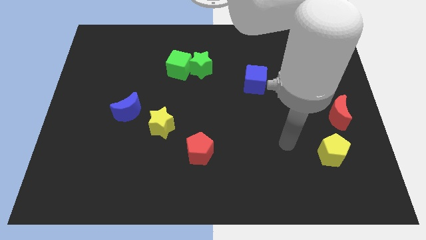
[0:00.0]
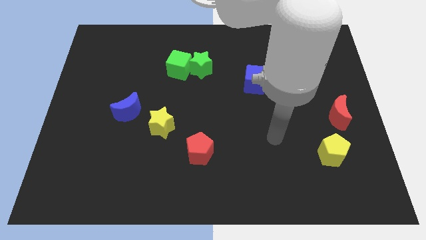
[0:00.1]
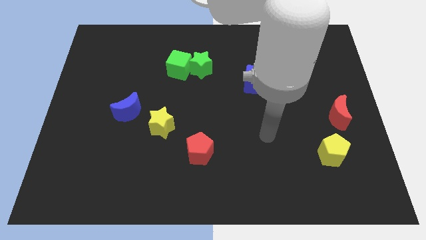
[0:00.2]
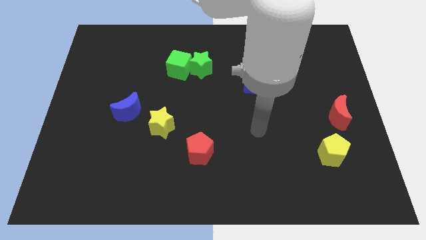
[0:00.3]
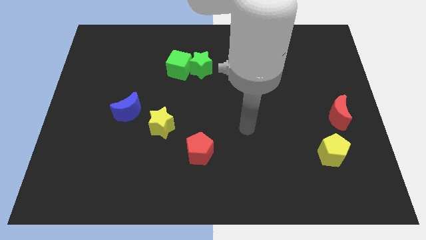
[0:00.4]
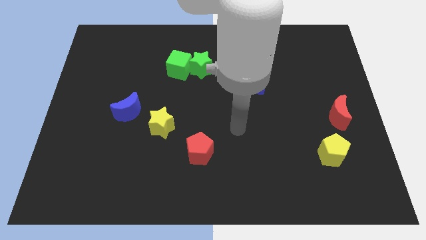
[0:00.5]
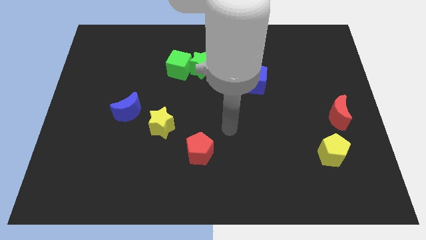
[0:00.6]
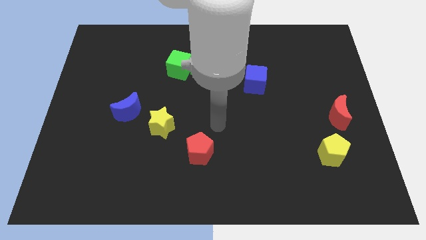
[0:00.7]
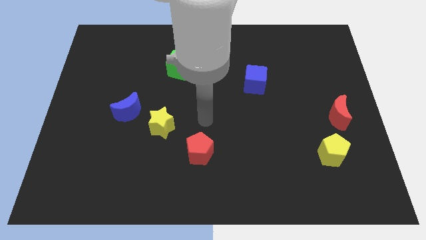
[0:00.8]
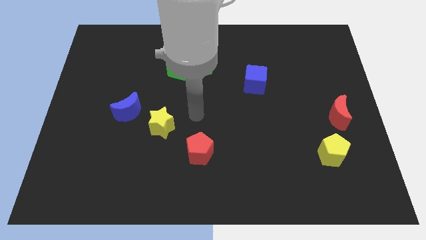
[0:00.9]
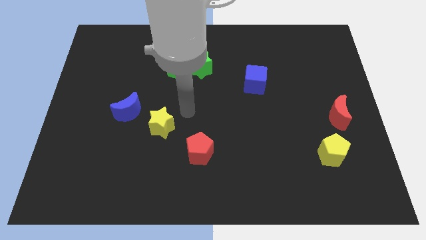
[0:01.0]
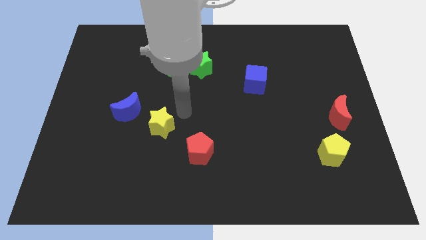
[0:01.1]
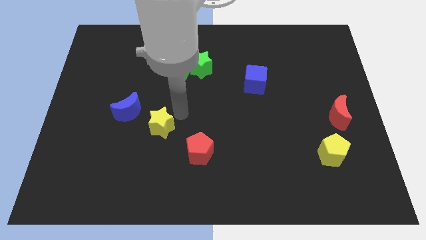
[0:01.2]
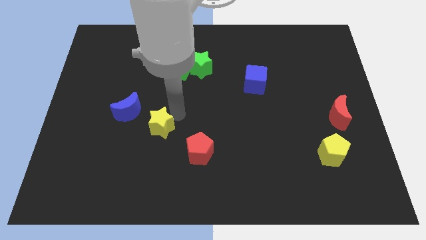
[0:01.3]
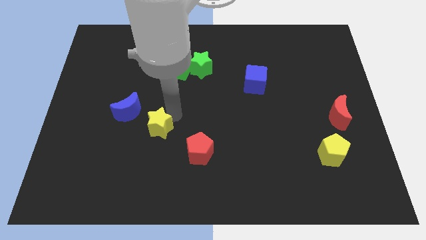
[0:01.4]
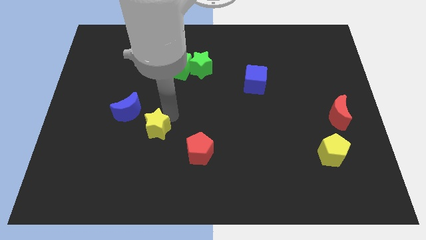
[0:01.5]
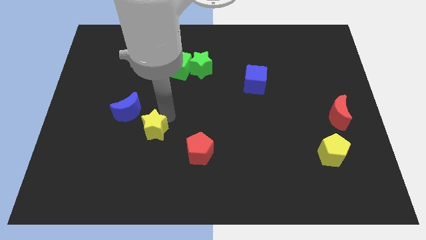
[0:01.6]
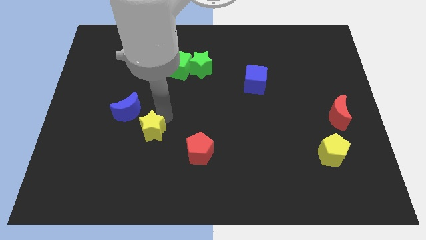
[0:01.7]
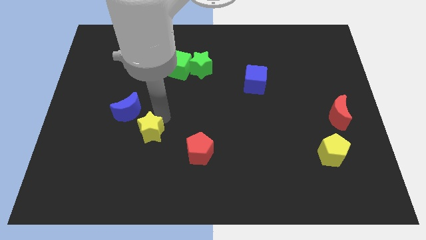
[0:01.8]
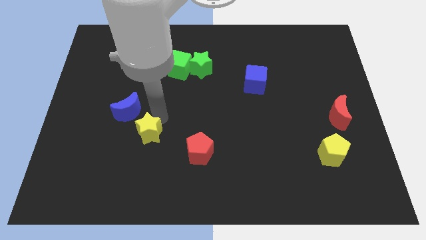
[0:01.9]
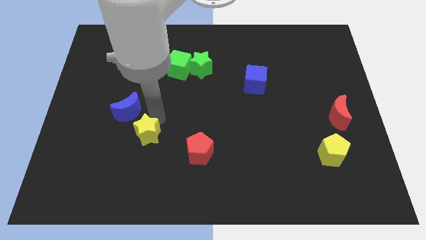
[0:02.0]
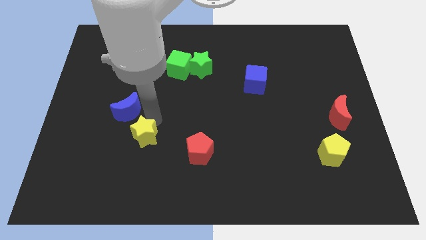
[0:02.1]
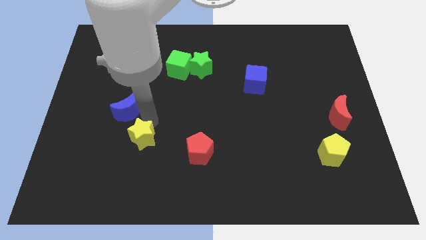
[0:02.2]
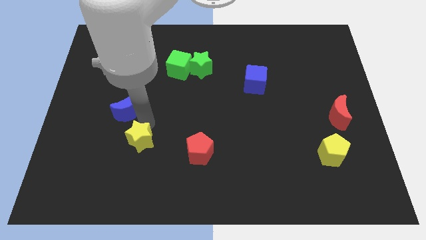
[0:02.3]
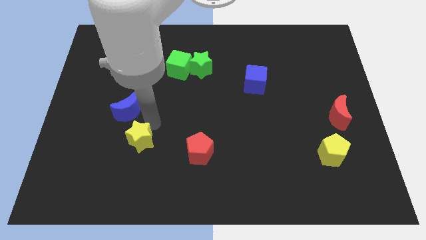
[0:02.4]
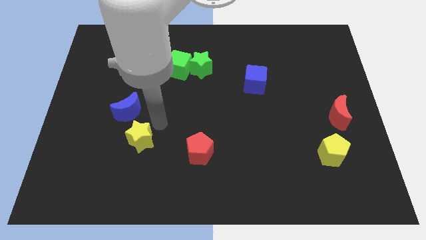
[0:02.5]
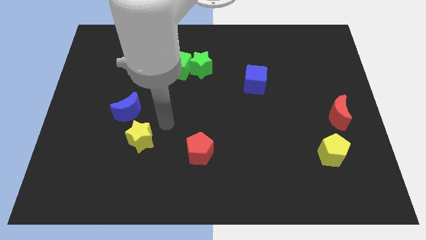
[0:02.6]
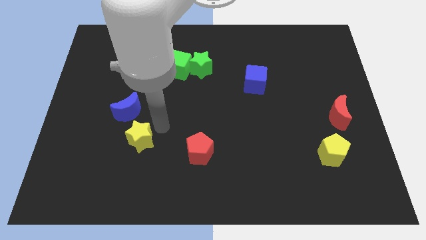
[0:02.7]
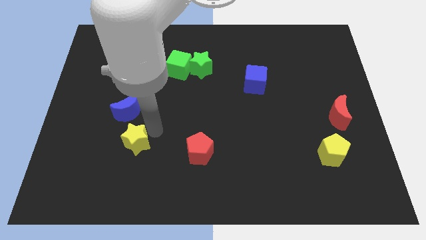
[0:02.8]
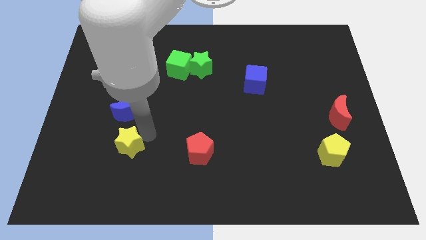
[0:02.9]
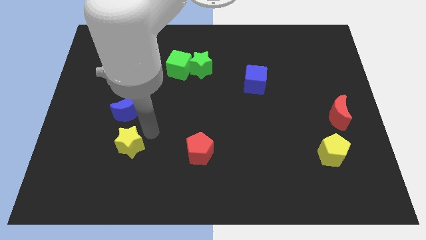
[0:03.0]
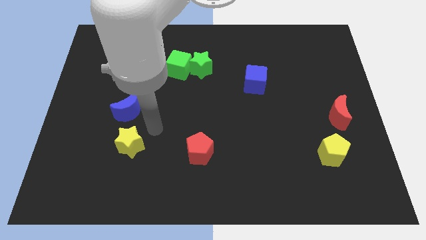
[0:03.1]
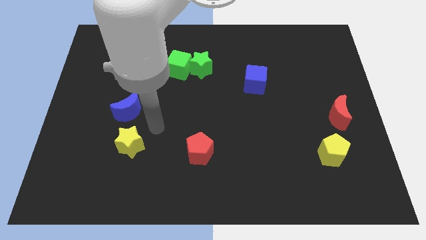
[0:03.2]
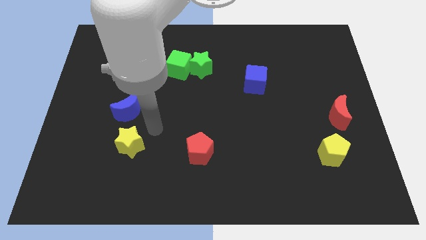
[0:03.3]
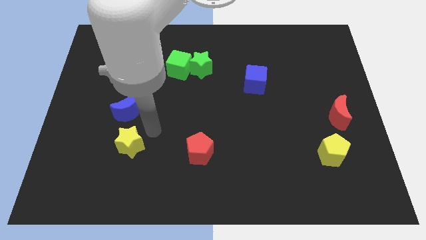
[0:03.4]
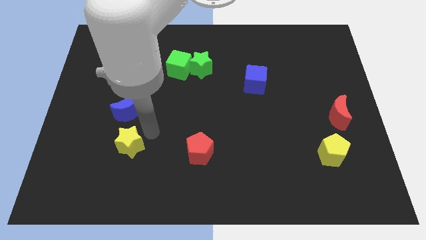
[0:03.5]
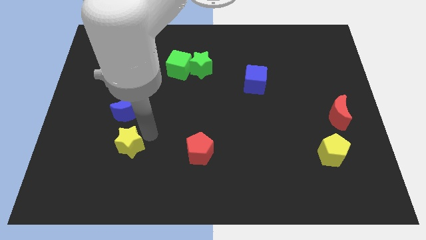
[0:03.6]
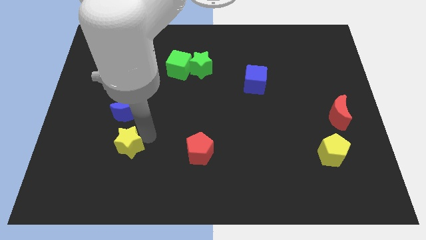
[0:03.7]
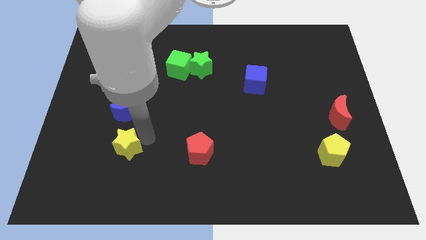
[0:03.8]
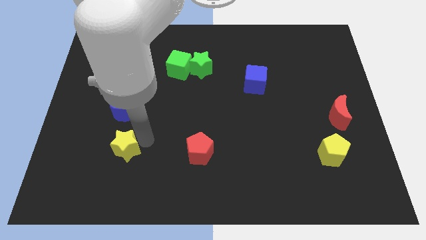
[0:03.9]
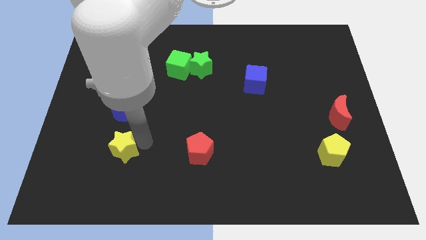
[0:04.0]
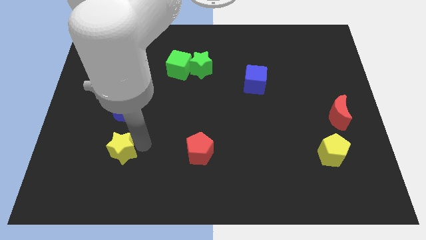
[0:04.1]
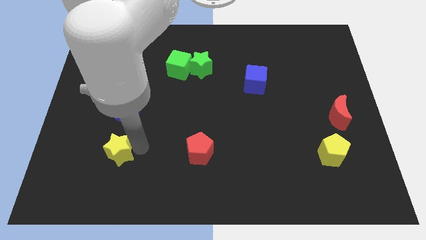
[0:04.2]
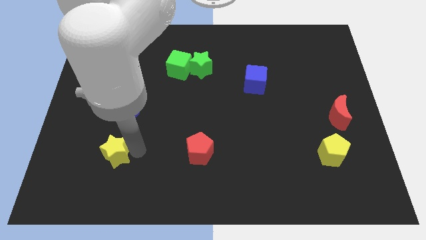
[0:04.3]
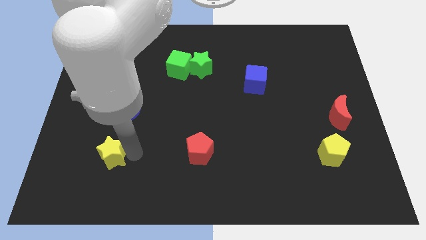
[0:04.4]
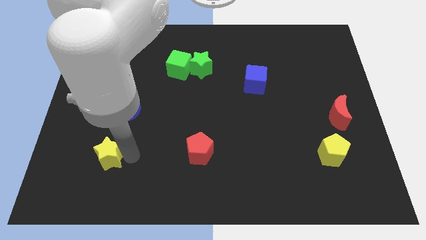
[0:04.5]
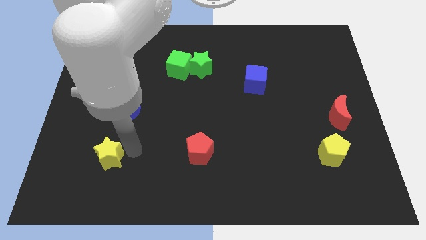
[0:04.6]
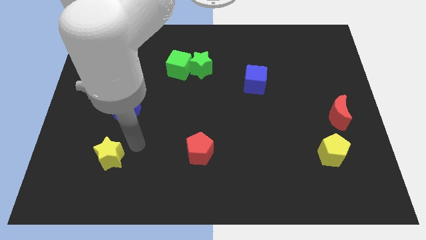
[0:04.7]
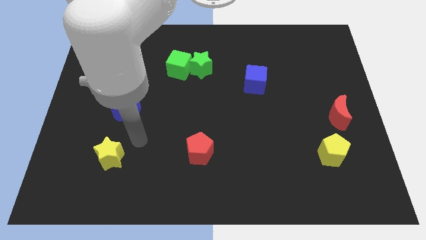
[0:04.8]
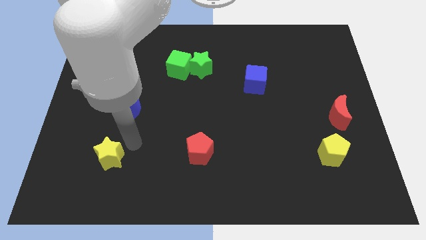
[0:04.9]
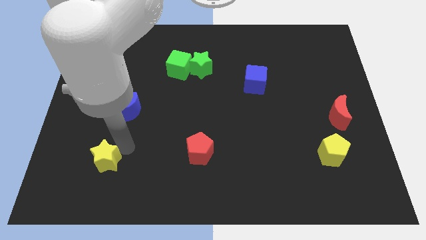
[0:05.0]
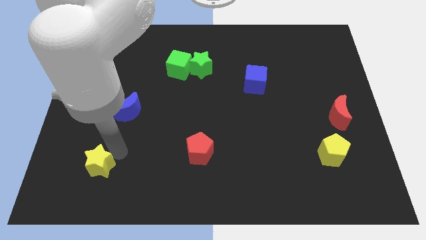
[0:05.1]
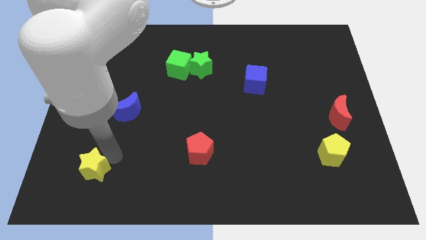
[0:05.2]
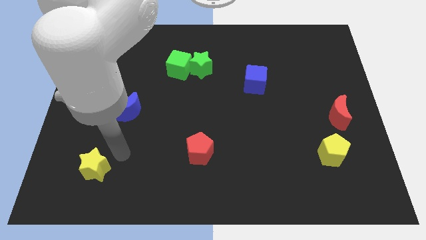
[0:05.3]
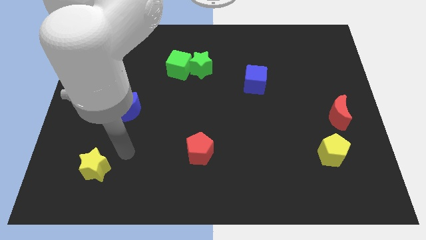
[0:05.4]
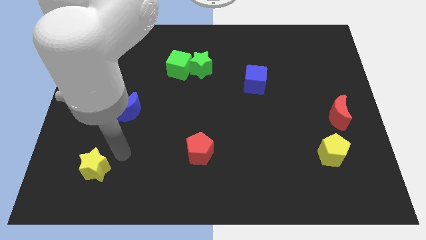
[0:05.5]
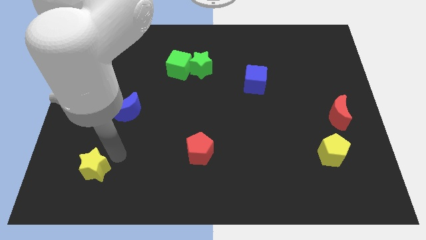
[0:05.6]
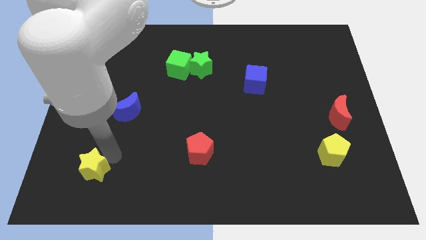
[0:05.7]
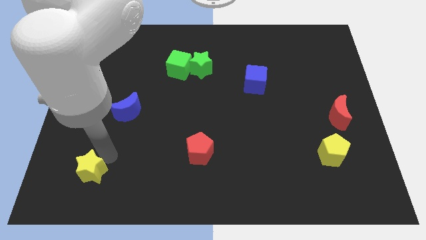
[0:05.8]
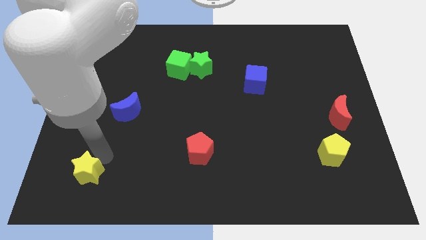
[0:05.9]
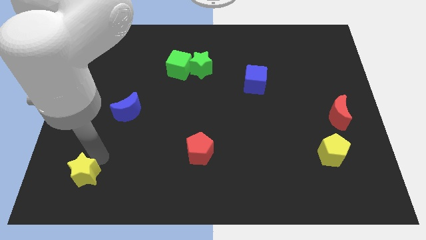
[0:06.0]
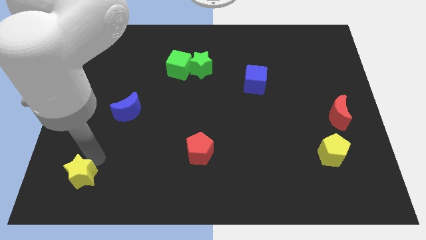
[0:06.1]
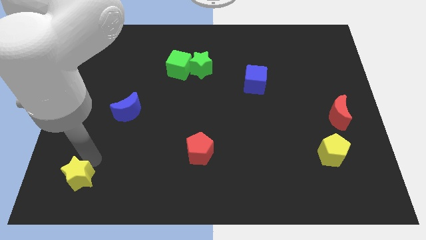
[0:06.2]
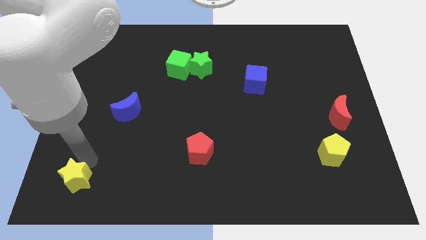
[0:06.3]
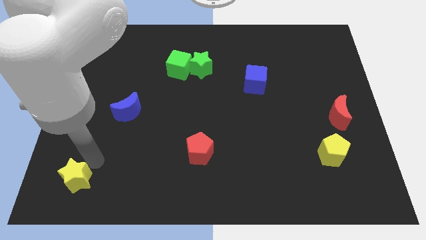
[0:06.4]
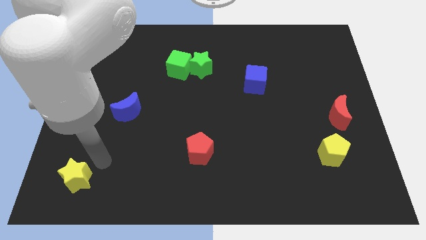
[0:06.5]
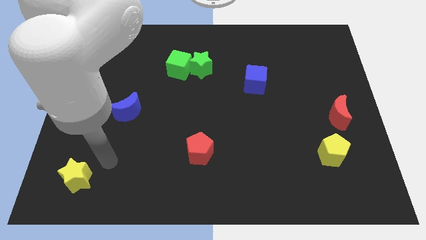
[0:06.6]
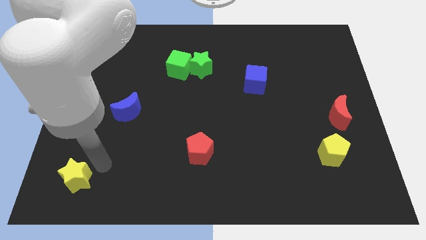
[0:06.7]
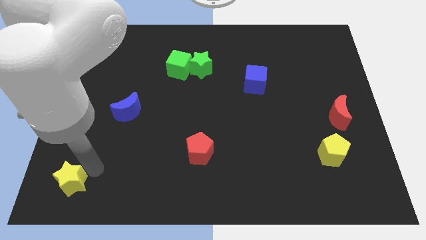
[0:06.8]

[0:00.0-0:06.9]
slide the yellow star to the bottom left corner
